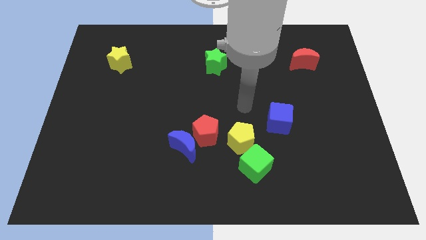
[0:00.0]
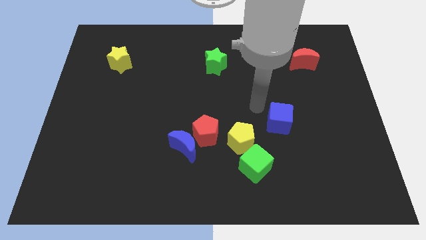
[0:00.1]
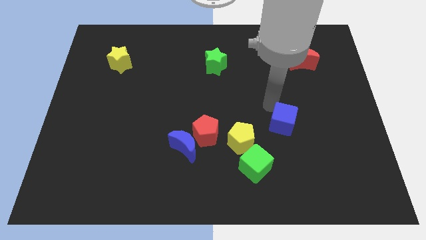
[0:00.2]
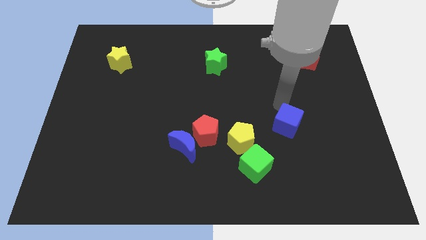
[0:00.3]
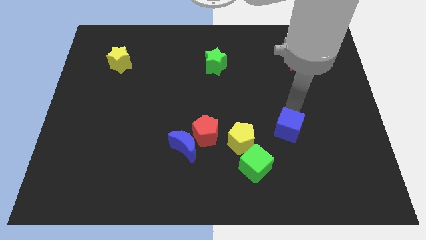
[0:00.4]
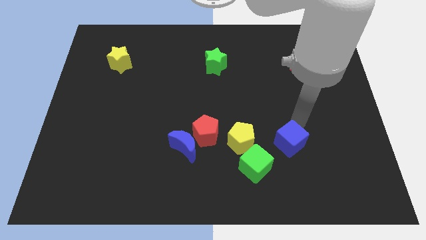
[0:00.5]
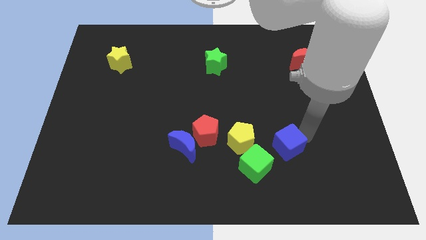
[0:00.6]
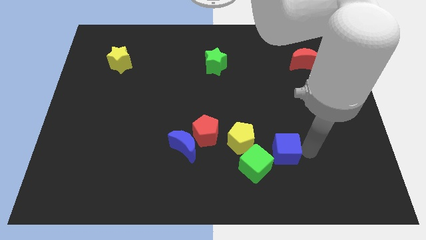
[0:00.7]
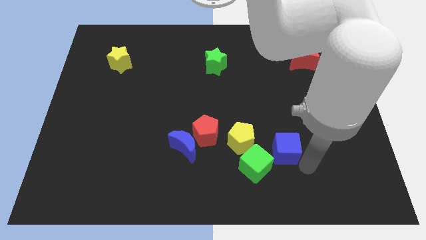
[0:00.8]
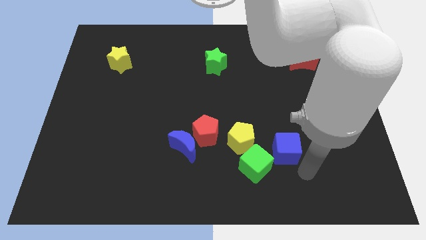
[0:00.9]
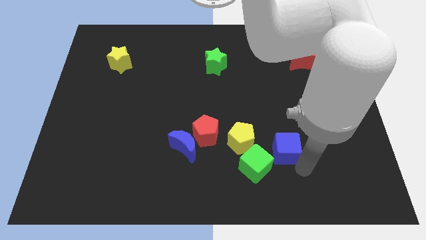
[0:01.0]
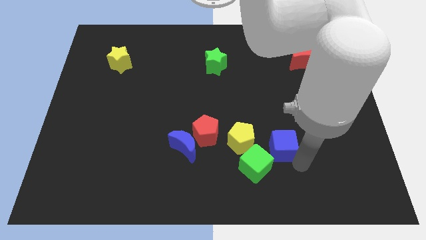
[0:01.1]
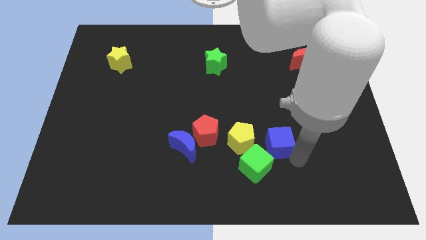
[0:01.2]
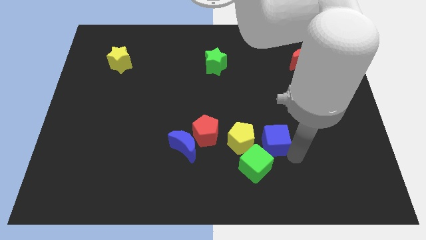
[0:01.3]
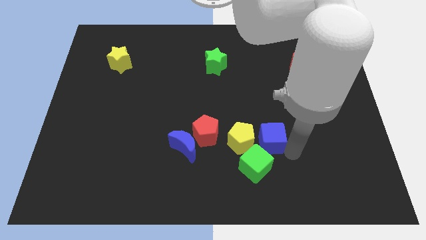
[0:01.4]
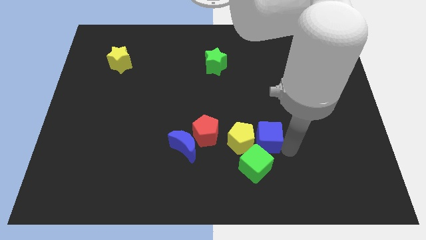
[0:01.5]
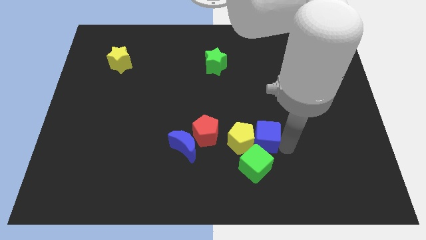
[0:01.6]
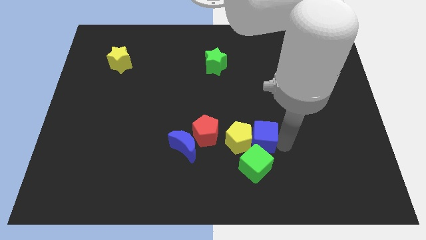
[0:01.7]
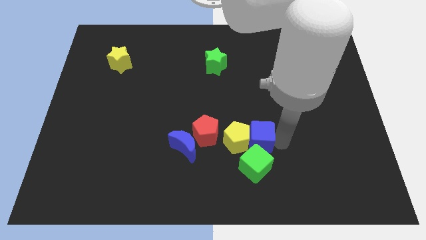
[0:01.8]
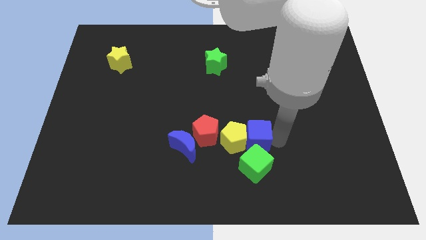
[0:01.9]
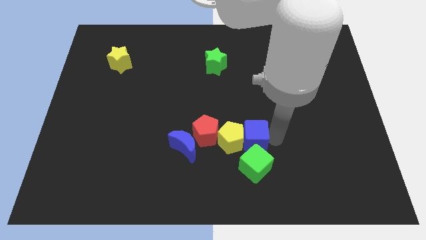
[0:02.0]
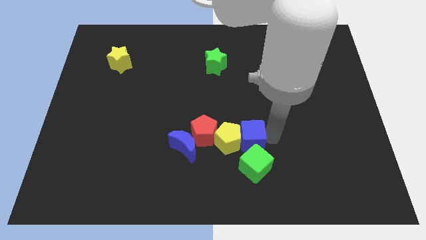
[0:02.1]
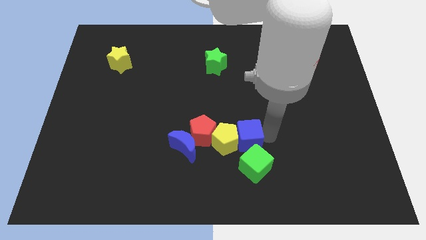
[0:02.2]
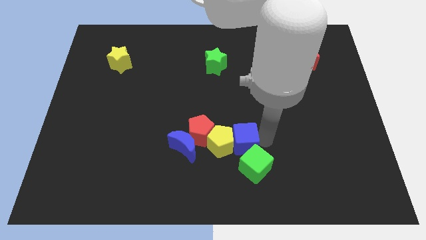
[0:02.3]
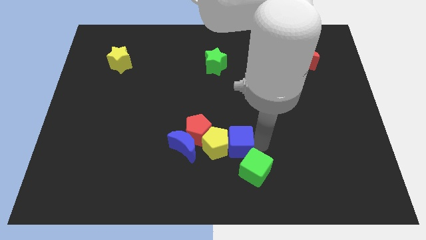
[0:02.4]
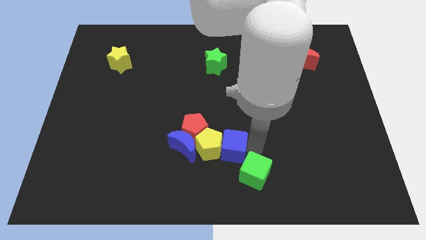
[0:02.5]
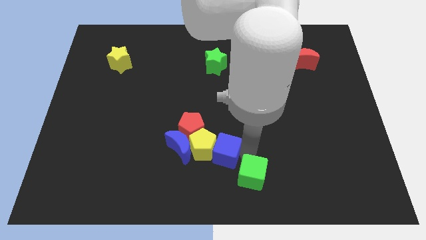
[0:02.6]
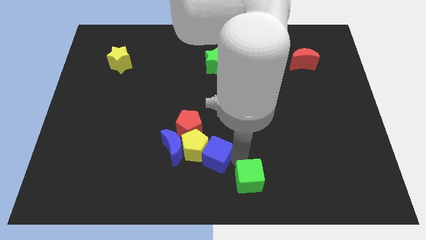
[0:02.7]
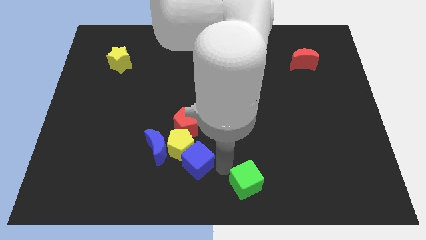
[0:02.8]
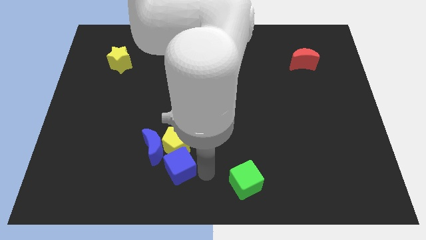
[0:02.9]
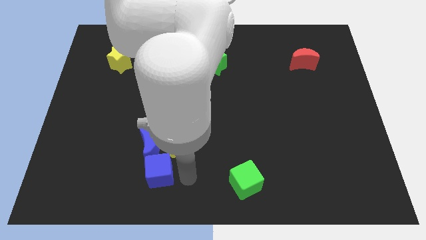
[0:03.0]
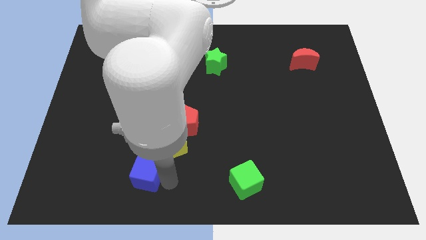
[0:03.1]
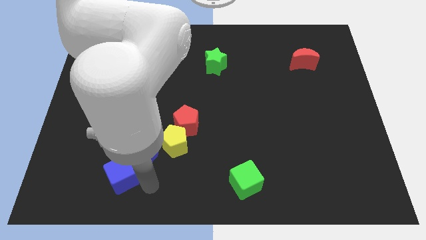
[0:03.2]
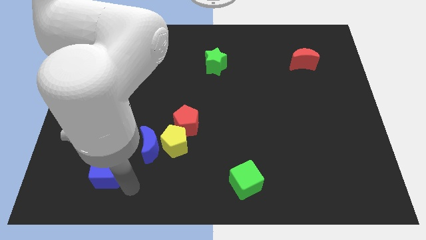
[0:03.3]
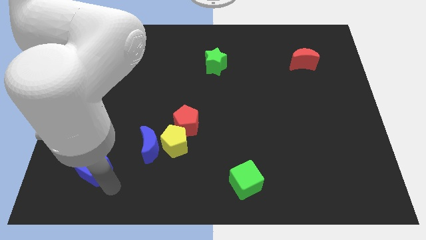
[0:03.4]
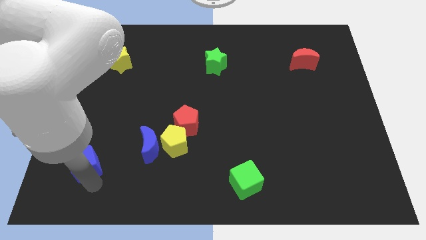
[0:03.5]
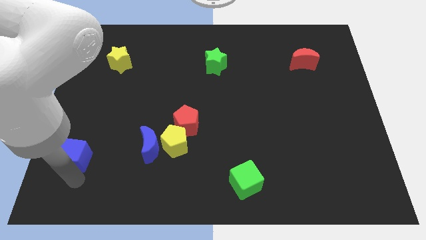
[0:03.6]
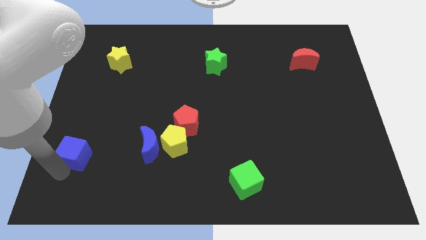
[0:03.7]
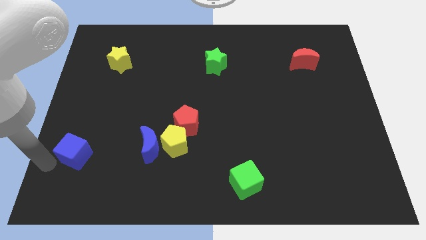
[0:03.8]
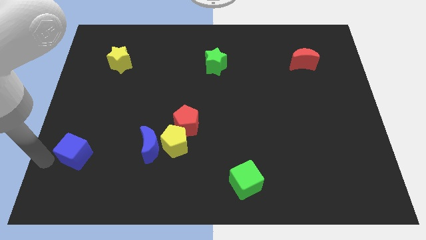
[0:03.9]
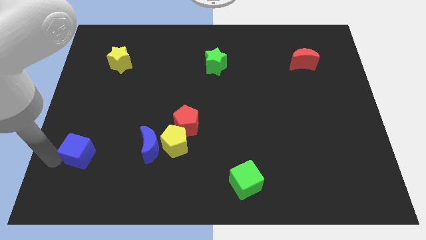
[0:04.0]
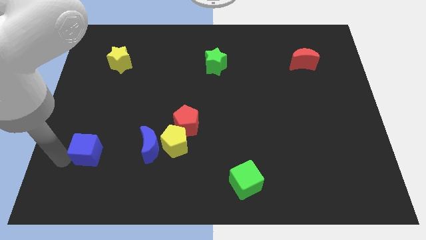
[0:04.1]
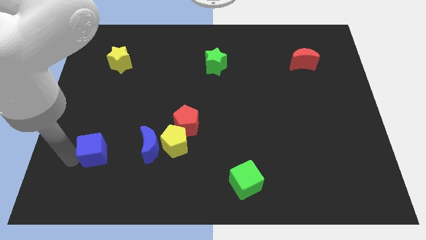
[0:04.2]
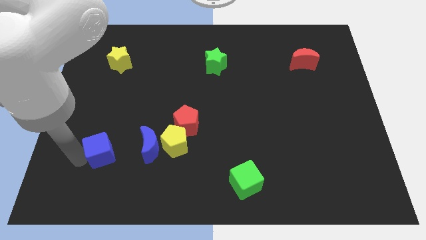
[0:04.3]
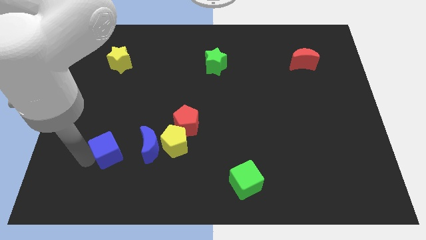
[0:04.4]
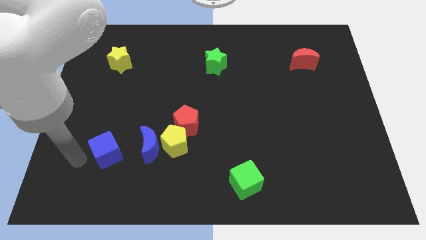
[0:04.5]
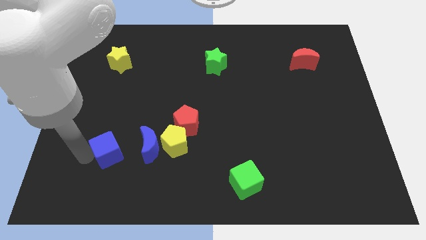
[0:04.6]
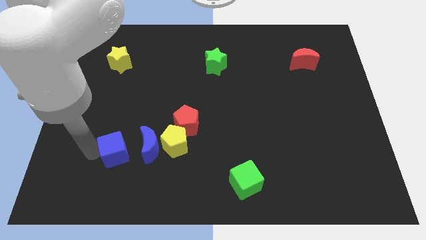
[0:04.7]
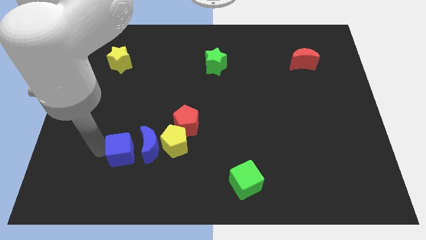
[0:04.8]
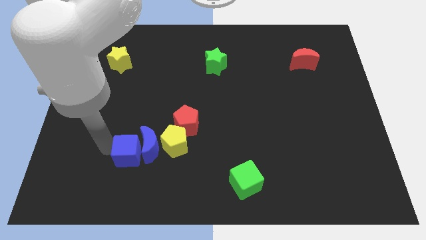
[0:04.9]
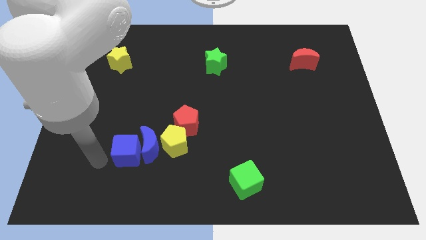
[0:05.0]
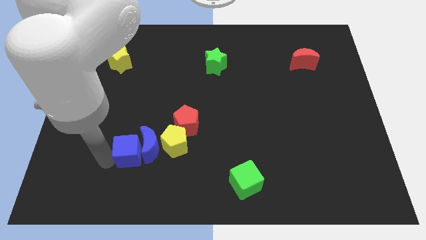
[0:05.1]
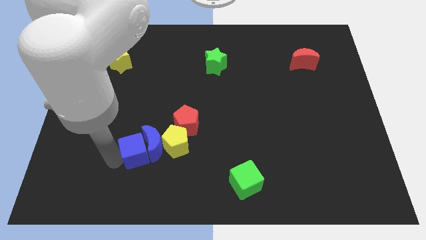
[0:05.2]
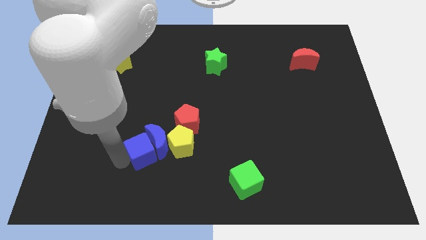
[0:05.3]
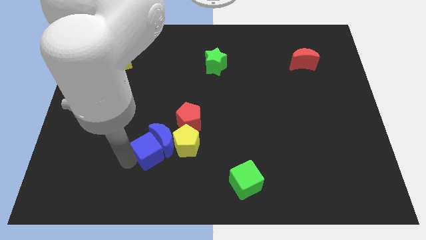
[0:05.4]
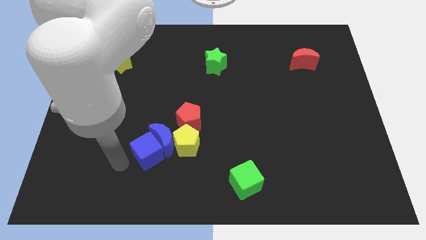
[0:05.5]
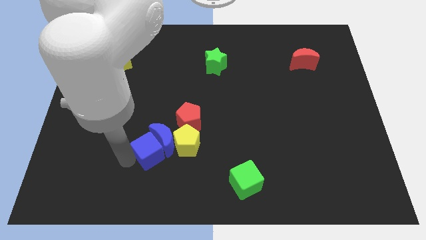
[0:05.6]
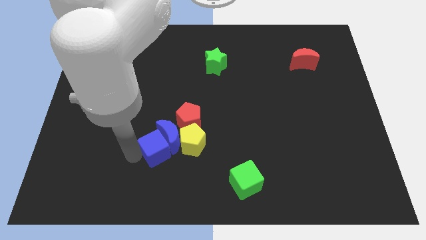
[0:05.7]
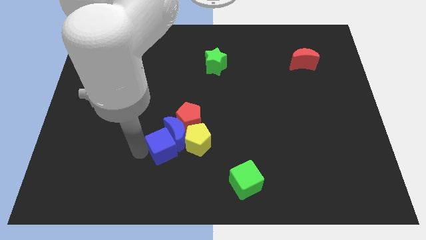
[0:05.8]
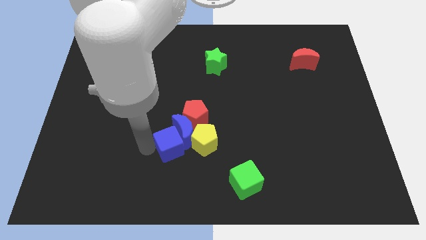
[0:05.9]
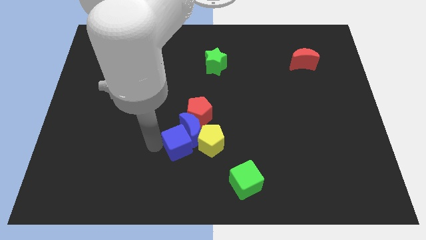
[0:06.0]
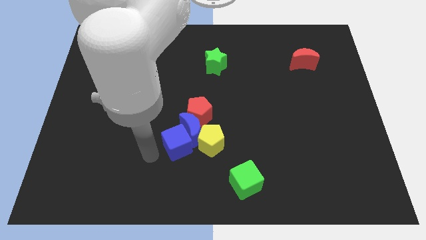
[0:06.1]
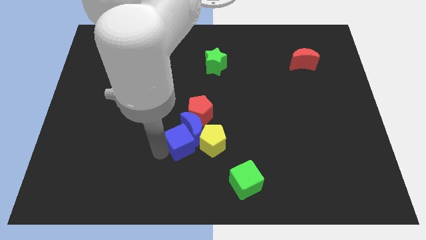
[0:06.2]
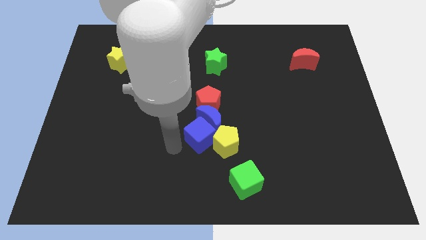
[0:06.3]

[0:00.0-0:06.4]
push the blue cube to the center

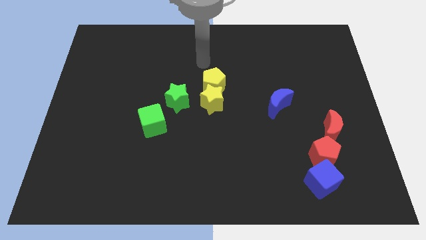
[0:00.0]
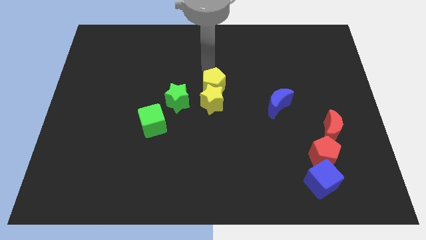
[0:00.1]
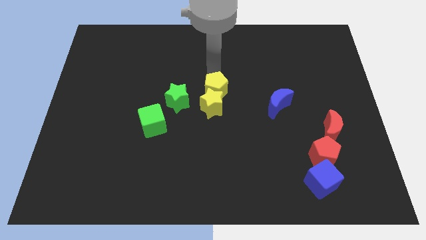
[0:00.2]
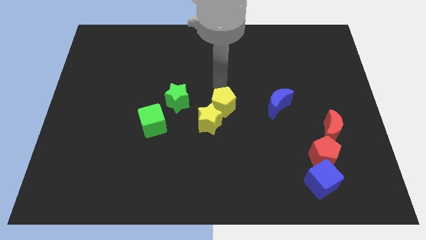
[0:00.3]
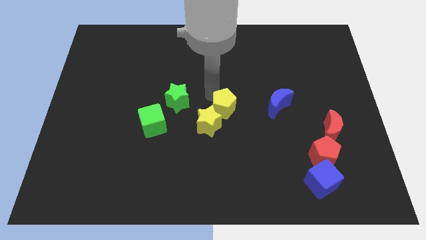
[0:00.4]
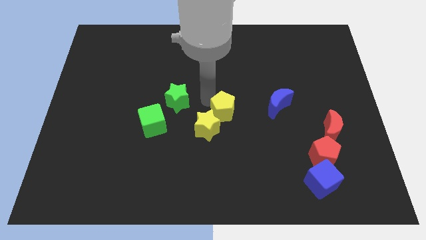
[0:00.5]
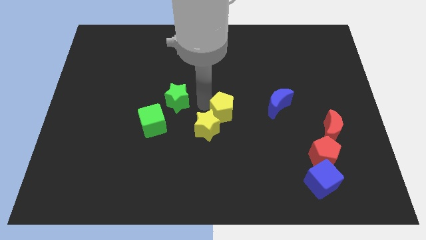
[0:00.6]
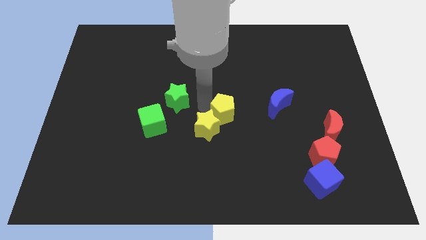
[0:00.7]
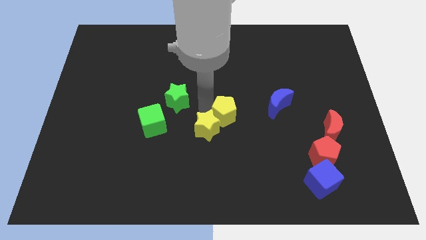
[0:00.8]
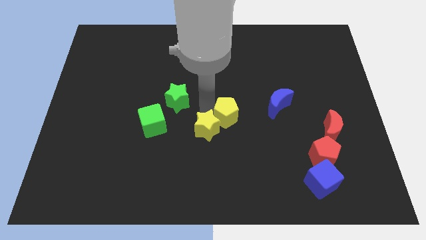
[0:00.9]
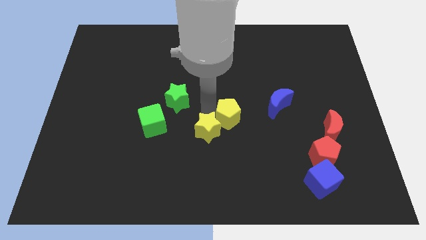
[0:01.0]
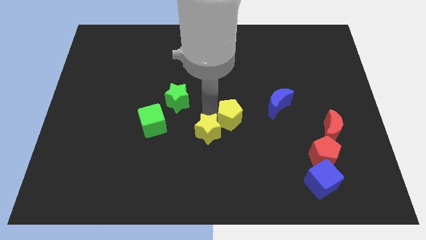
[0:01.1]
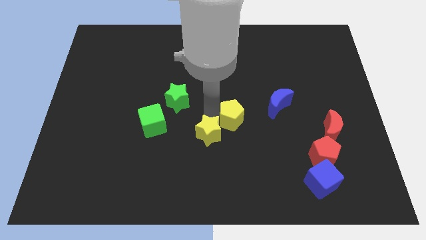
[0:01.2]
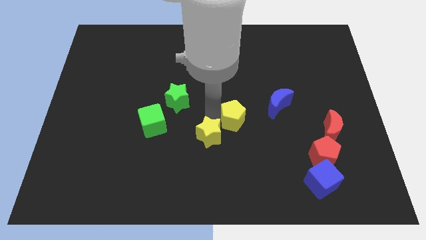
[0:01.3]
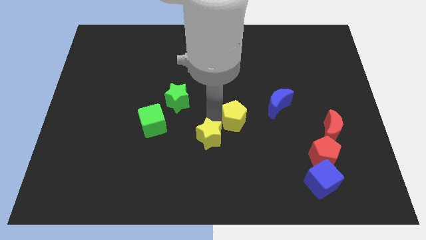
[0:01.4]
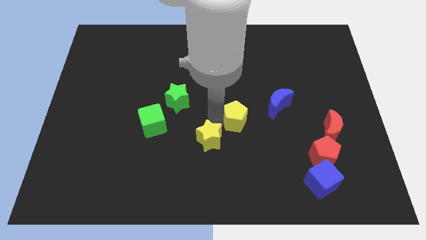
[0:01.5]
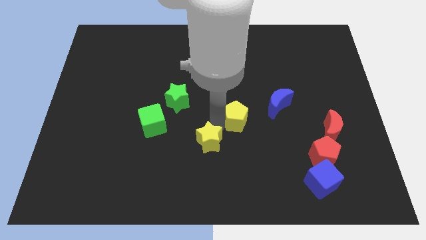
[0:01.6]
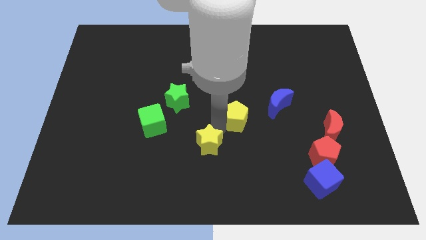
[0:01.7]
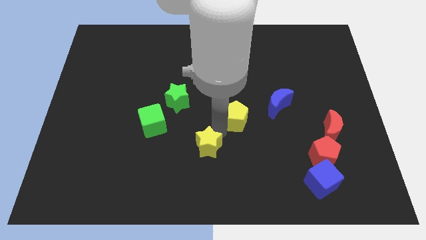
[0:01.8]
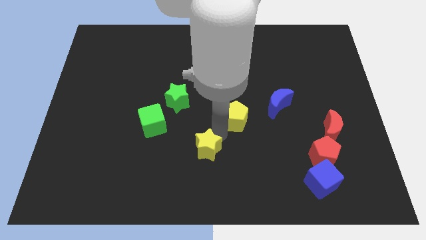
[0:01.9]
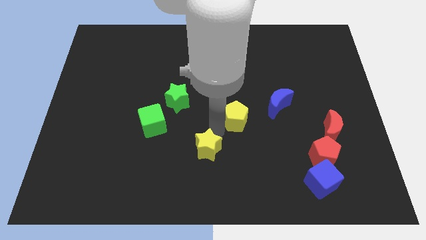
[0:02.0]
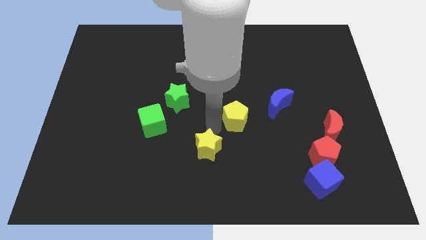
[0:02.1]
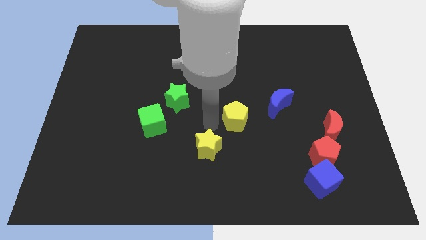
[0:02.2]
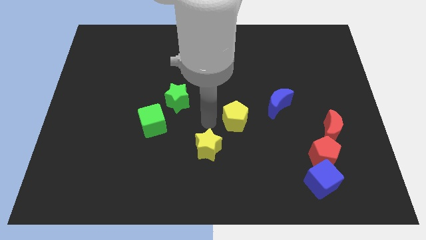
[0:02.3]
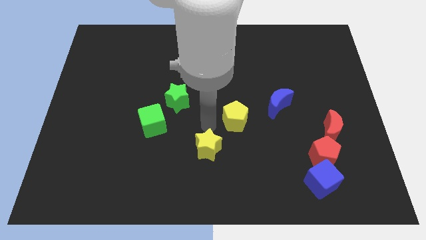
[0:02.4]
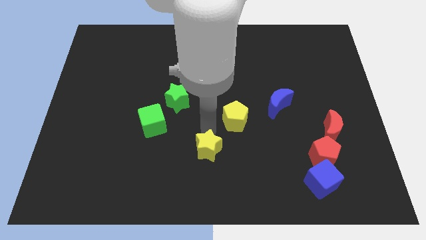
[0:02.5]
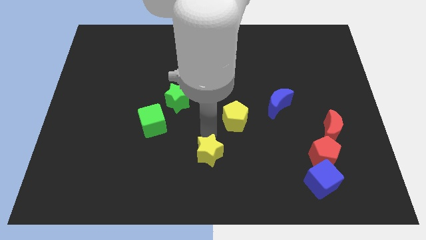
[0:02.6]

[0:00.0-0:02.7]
push the yellow star to the bottom side
